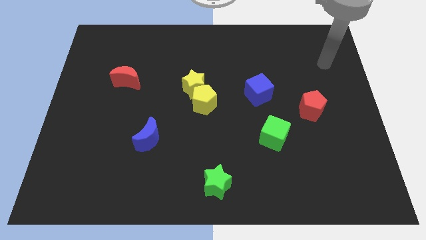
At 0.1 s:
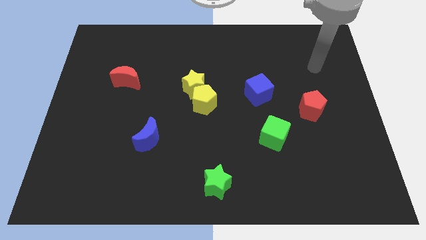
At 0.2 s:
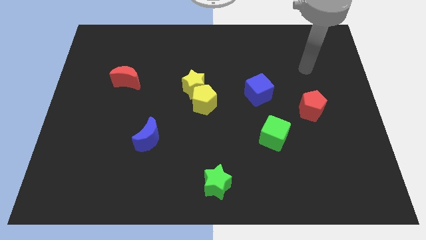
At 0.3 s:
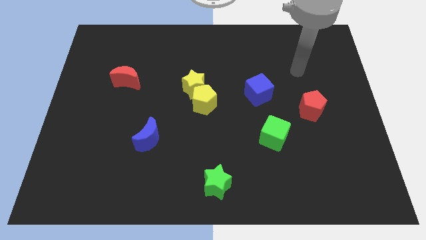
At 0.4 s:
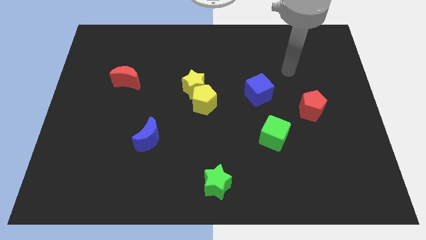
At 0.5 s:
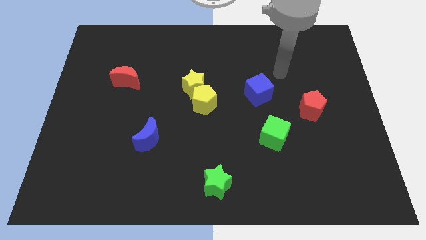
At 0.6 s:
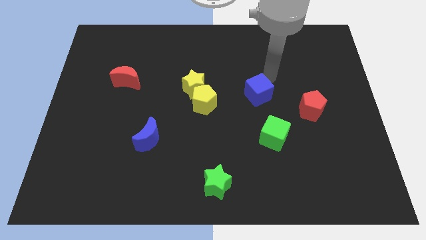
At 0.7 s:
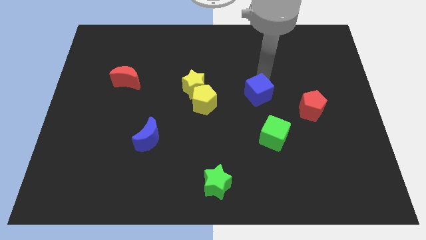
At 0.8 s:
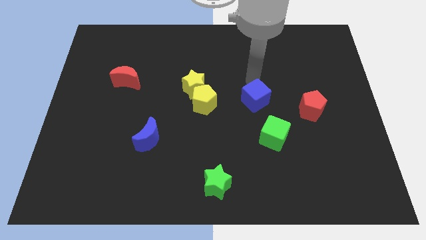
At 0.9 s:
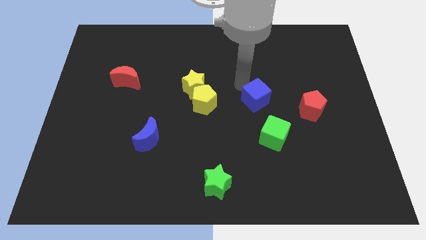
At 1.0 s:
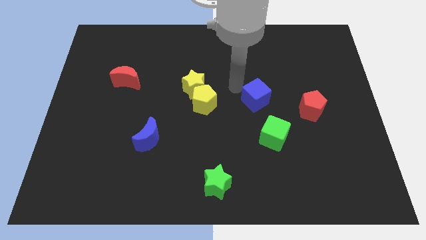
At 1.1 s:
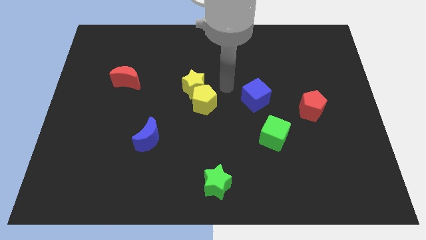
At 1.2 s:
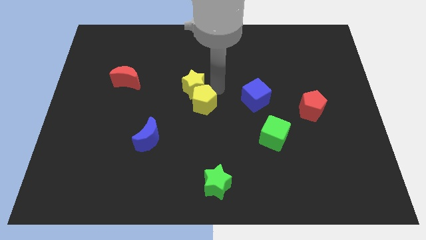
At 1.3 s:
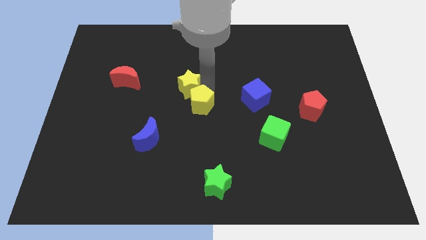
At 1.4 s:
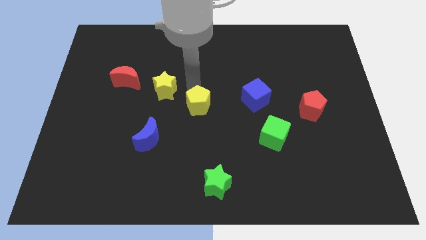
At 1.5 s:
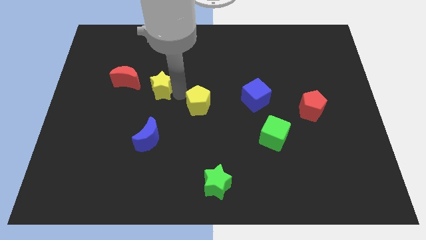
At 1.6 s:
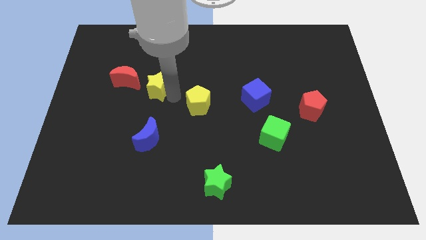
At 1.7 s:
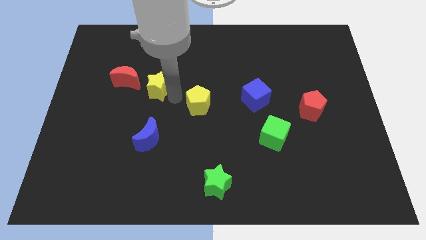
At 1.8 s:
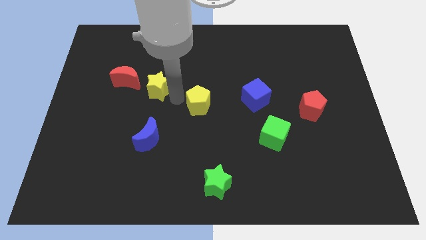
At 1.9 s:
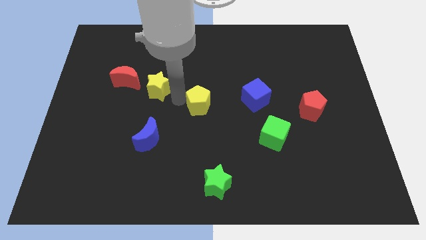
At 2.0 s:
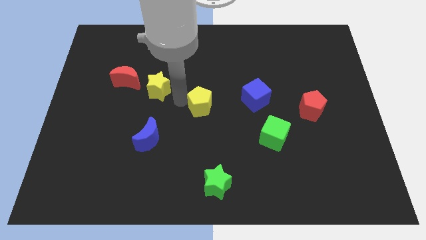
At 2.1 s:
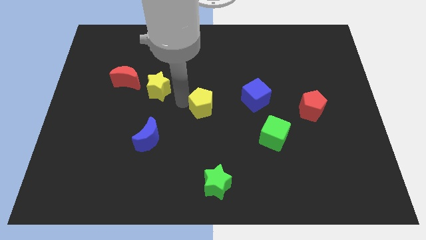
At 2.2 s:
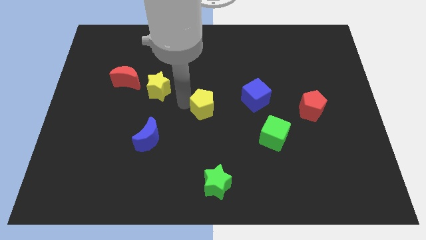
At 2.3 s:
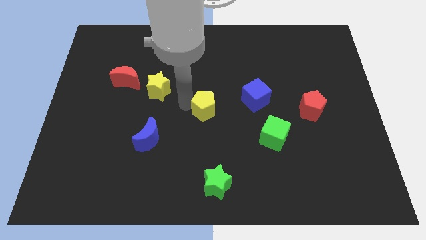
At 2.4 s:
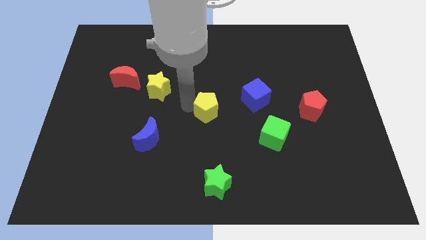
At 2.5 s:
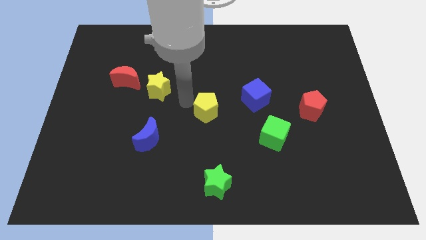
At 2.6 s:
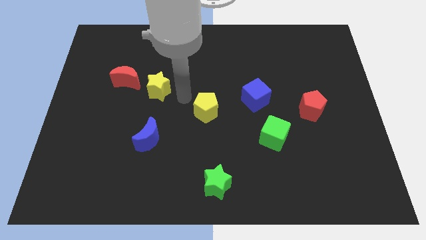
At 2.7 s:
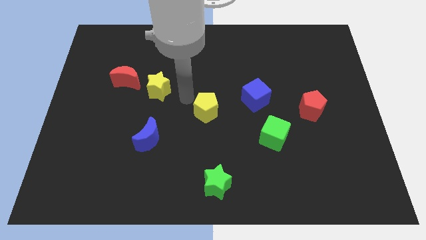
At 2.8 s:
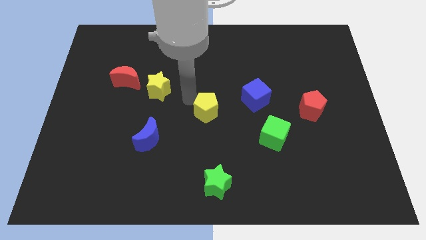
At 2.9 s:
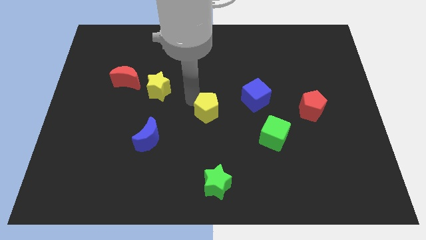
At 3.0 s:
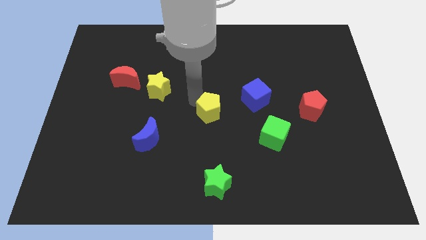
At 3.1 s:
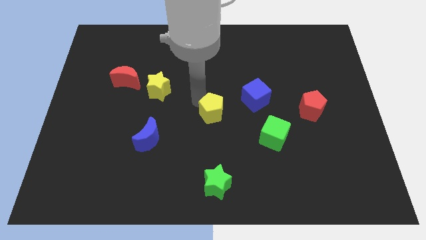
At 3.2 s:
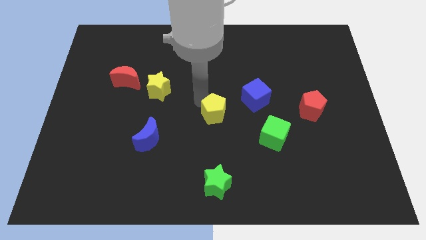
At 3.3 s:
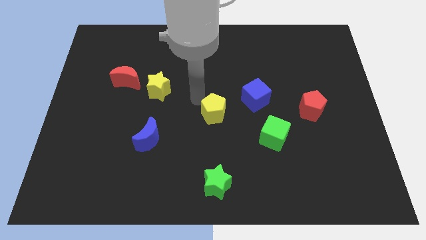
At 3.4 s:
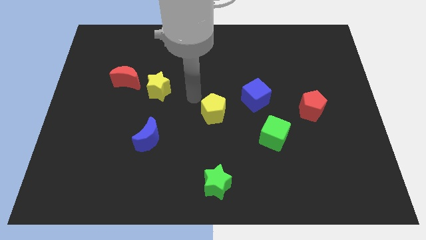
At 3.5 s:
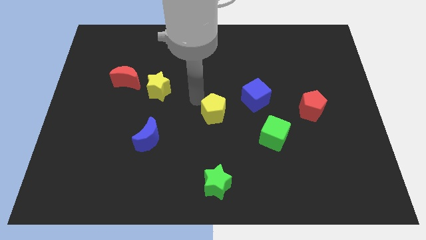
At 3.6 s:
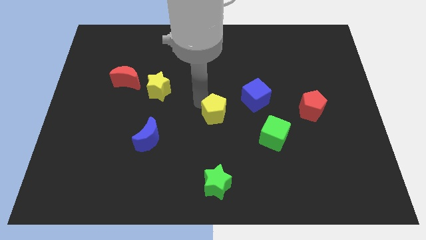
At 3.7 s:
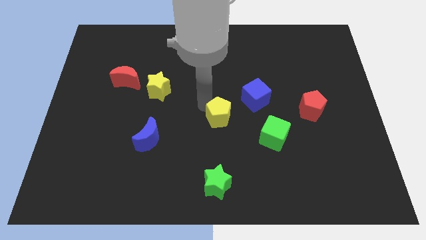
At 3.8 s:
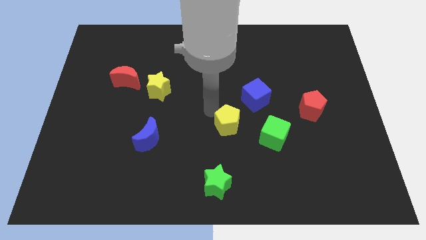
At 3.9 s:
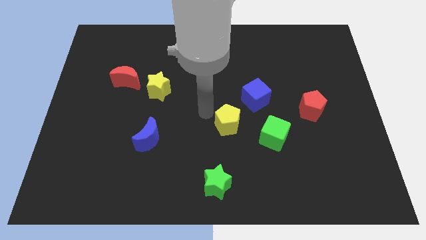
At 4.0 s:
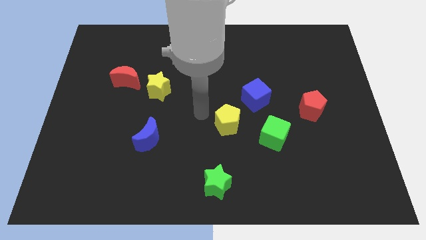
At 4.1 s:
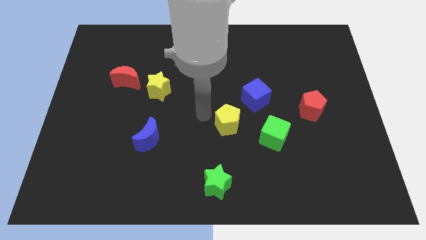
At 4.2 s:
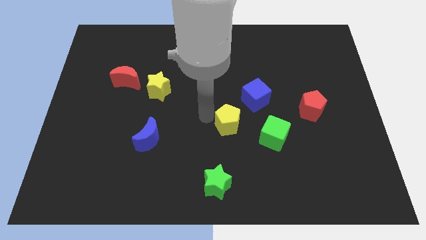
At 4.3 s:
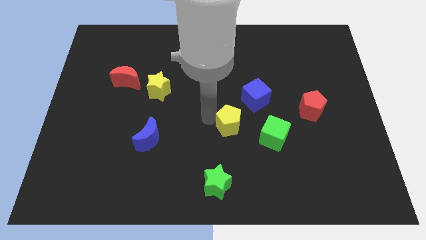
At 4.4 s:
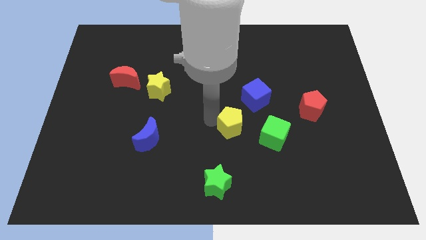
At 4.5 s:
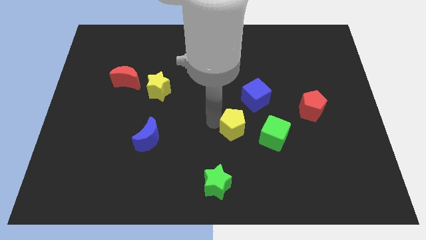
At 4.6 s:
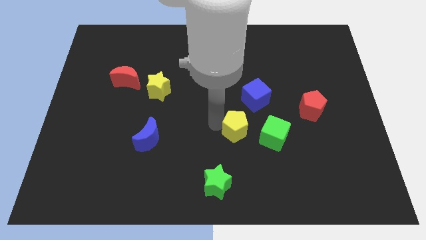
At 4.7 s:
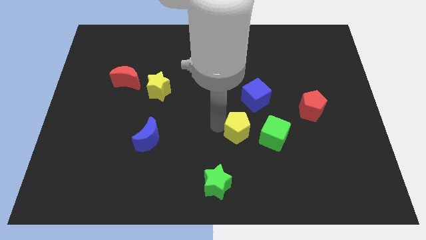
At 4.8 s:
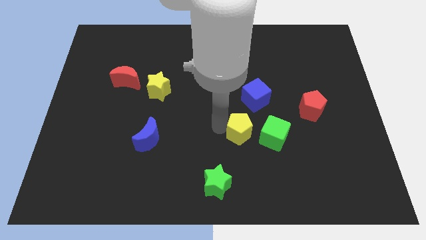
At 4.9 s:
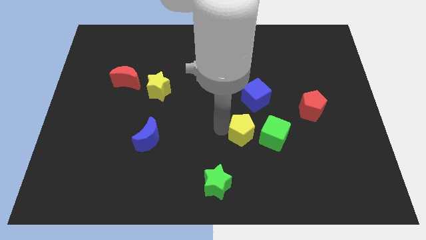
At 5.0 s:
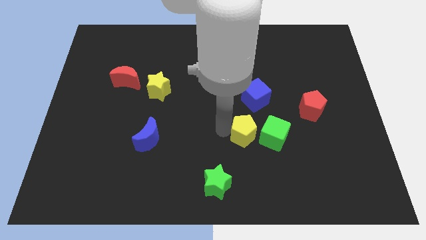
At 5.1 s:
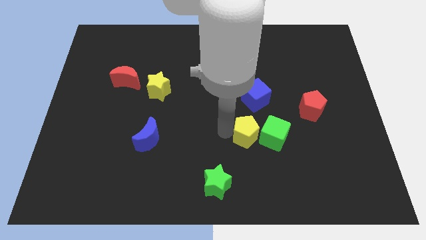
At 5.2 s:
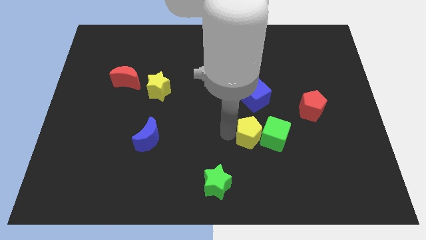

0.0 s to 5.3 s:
put the yellow pentagon next to the green cube

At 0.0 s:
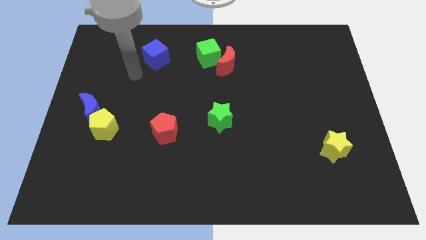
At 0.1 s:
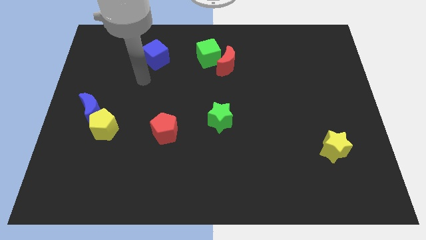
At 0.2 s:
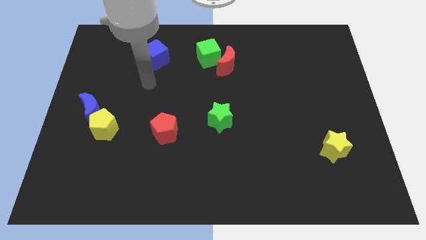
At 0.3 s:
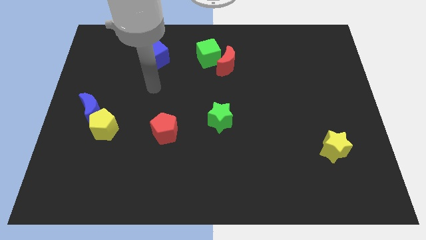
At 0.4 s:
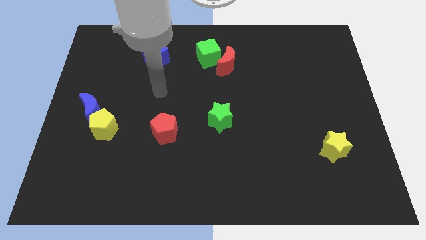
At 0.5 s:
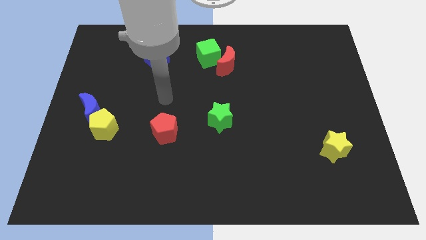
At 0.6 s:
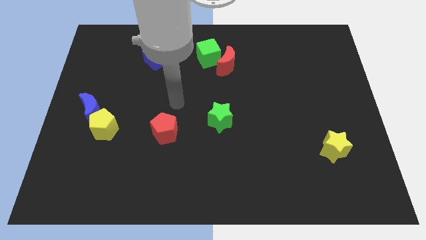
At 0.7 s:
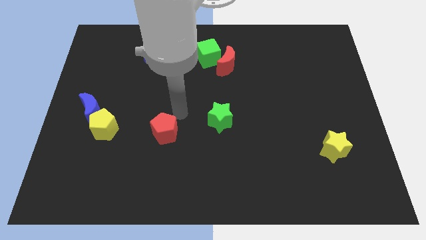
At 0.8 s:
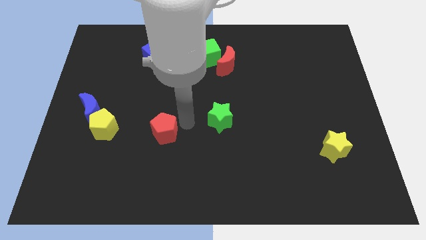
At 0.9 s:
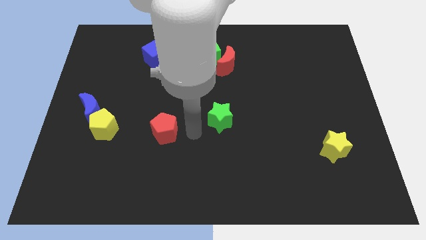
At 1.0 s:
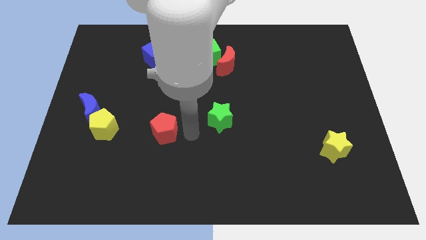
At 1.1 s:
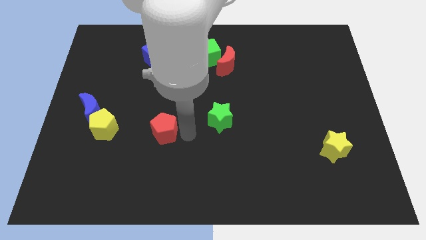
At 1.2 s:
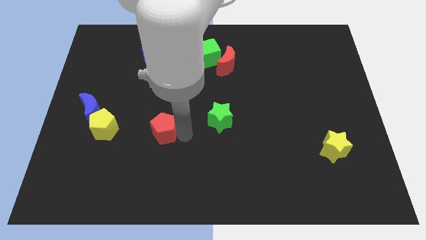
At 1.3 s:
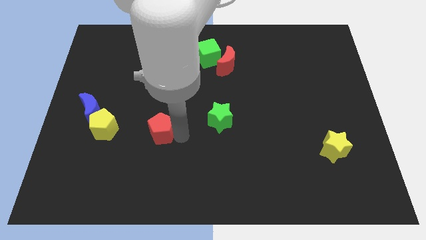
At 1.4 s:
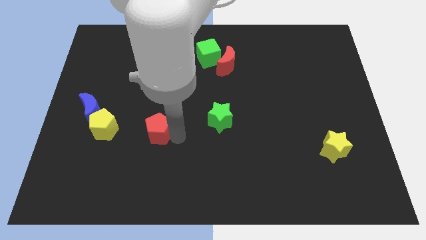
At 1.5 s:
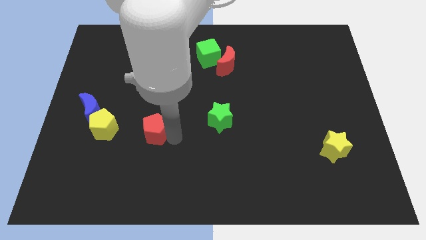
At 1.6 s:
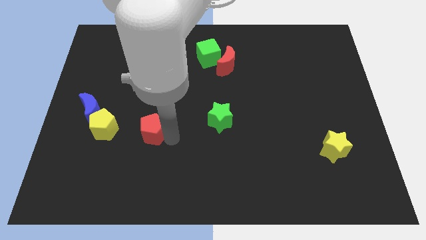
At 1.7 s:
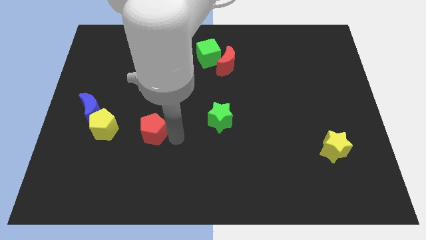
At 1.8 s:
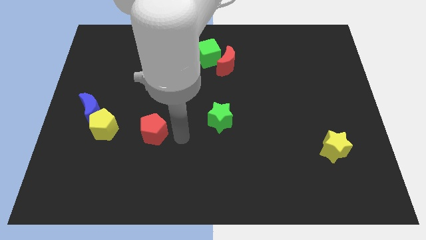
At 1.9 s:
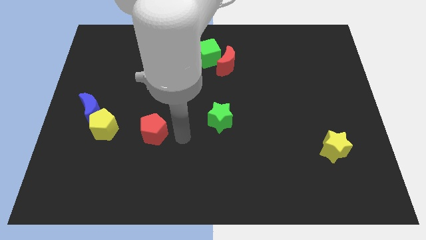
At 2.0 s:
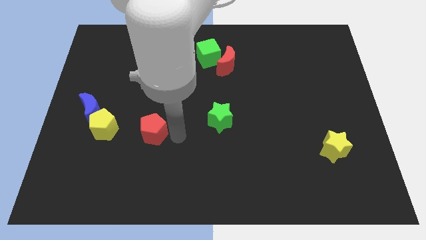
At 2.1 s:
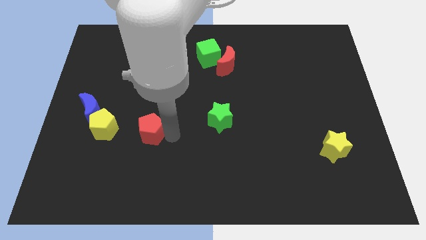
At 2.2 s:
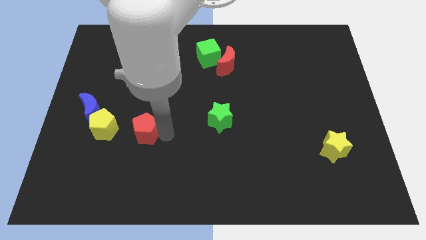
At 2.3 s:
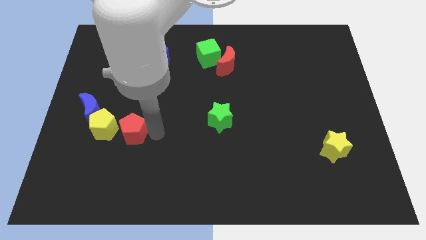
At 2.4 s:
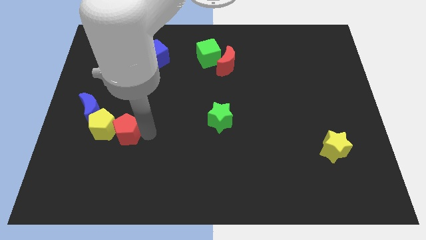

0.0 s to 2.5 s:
move the red pentagon close to the yellow pentagon
